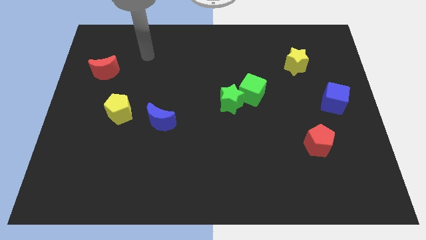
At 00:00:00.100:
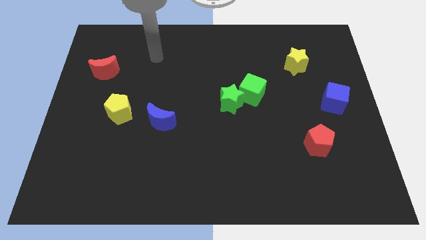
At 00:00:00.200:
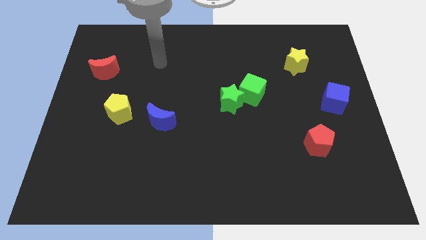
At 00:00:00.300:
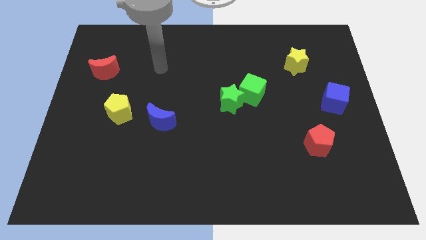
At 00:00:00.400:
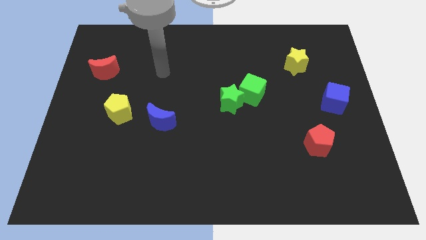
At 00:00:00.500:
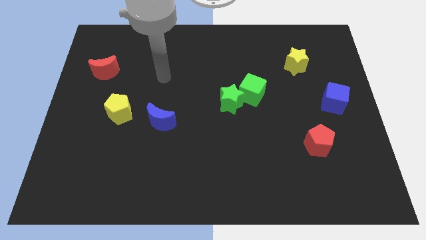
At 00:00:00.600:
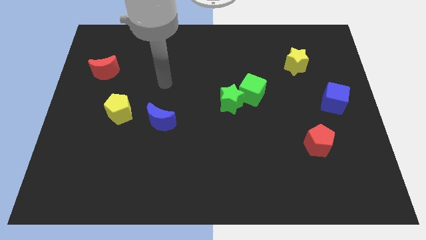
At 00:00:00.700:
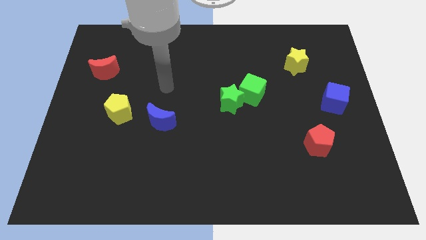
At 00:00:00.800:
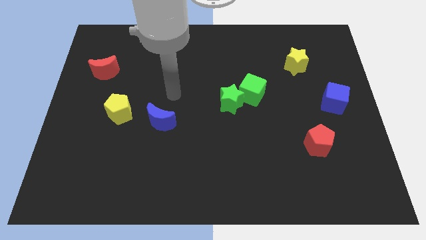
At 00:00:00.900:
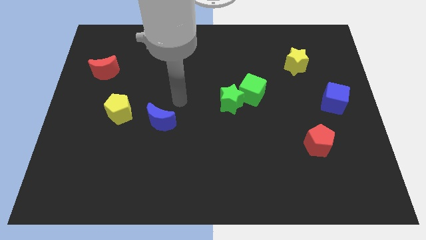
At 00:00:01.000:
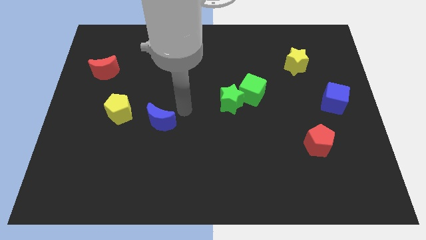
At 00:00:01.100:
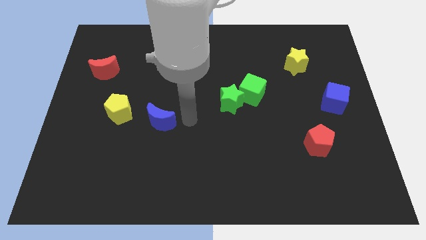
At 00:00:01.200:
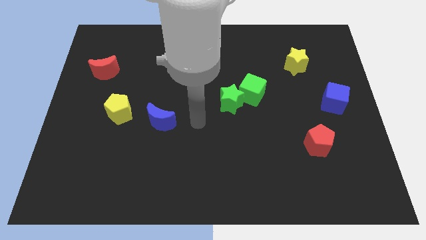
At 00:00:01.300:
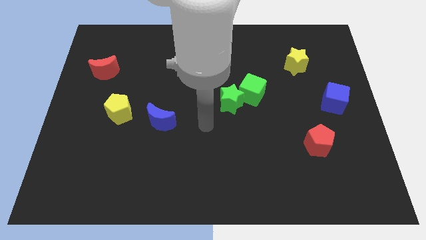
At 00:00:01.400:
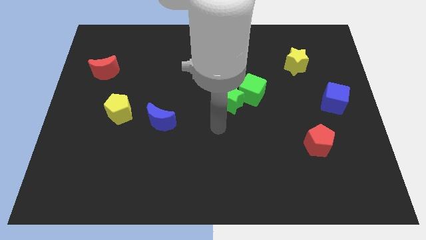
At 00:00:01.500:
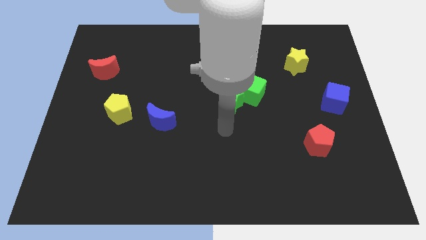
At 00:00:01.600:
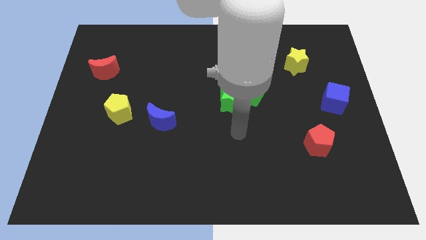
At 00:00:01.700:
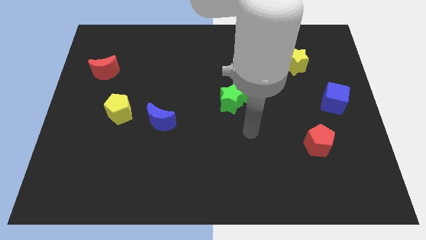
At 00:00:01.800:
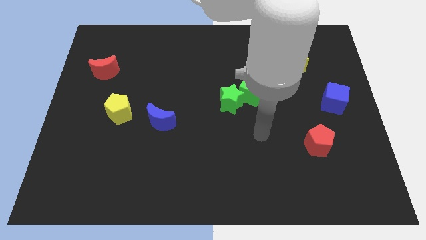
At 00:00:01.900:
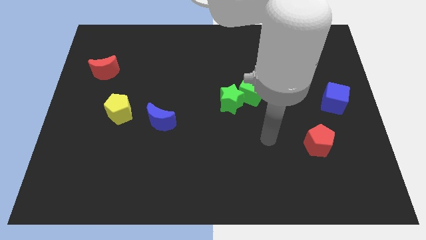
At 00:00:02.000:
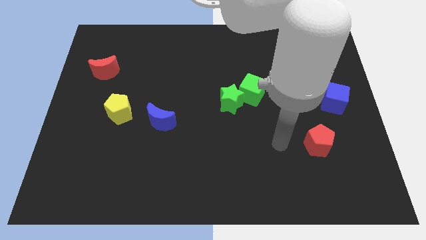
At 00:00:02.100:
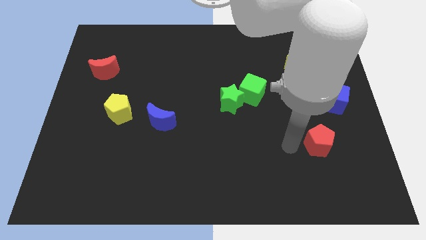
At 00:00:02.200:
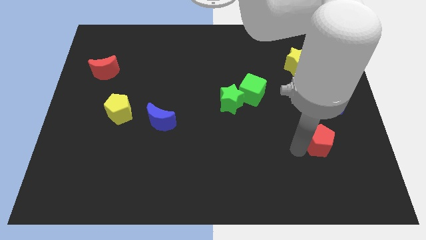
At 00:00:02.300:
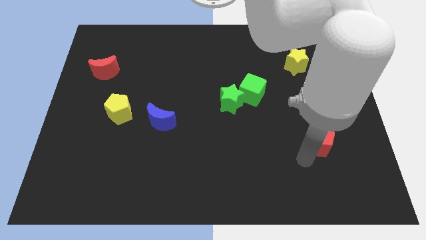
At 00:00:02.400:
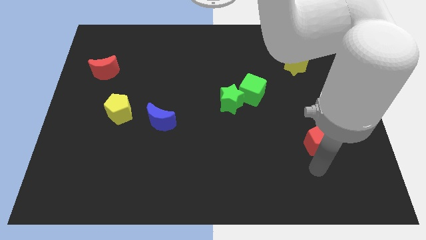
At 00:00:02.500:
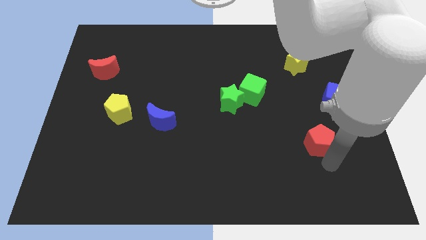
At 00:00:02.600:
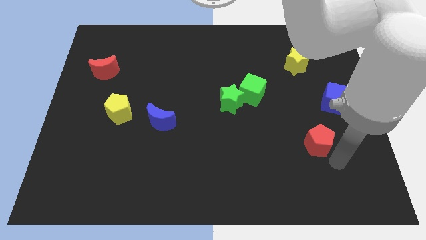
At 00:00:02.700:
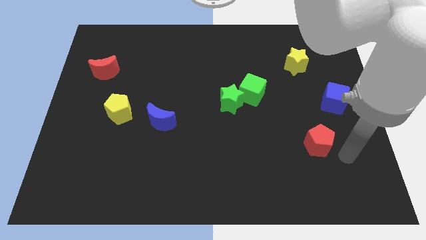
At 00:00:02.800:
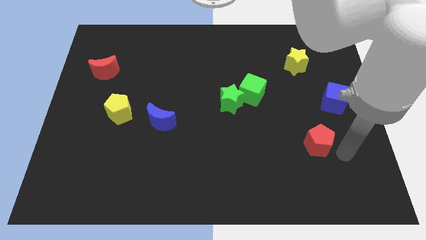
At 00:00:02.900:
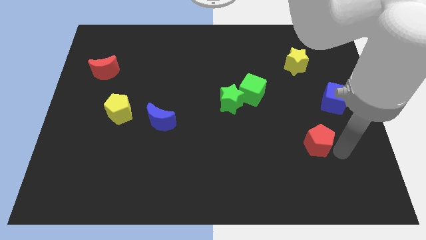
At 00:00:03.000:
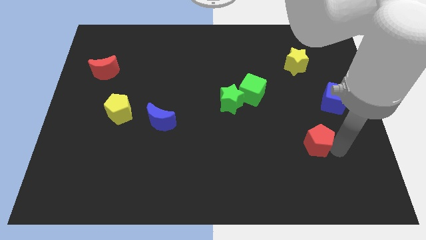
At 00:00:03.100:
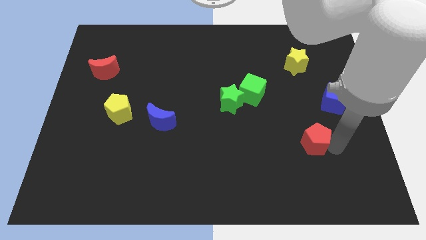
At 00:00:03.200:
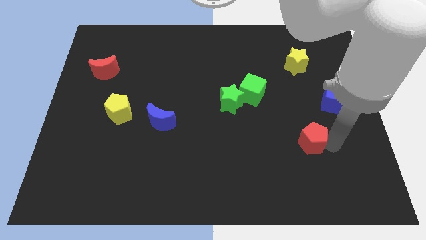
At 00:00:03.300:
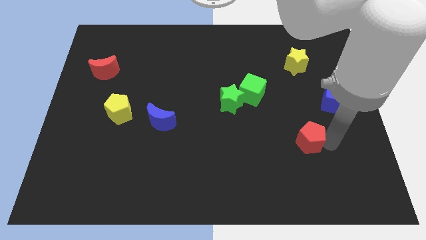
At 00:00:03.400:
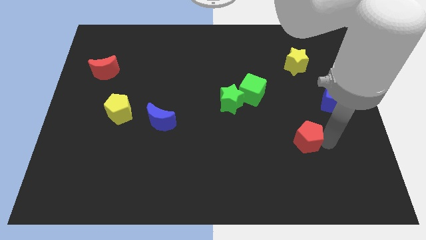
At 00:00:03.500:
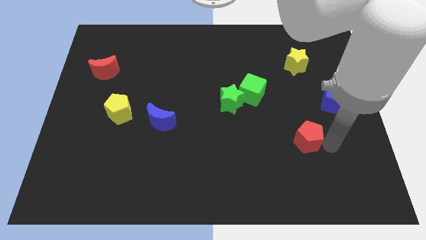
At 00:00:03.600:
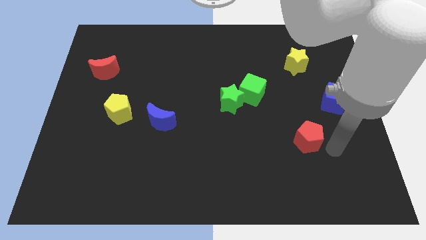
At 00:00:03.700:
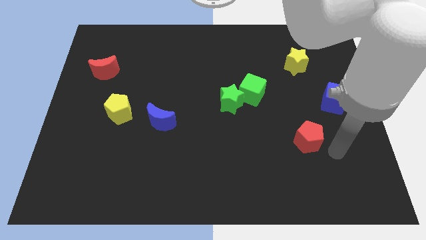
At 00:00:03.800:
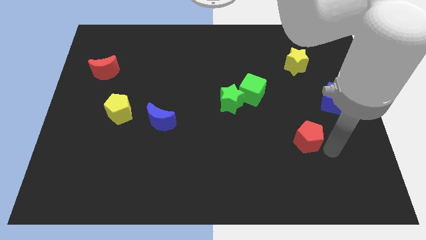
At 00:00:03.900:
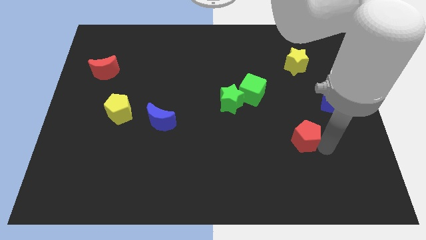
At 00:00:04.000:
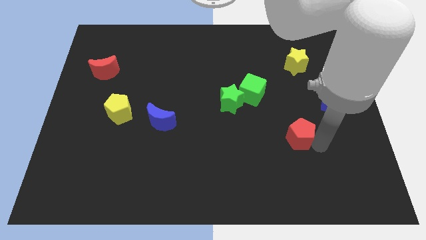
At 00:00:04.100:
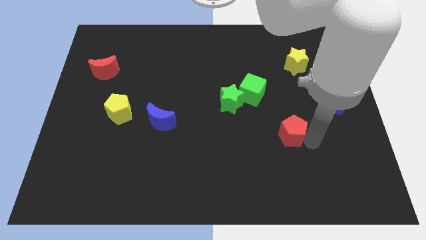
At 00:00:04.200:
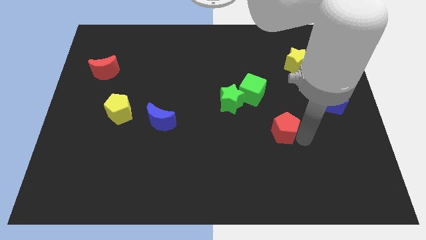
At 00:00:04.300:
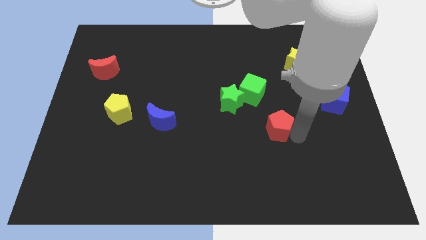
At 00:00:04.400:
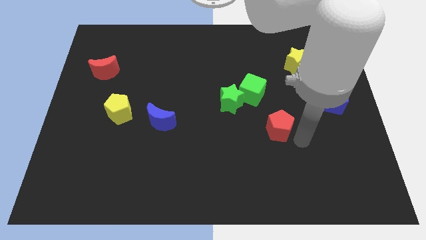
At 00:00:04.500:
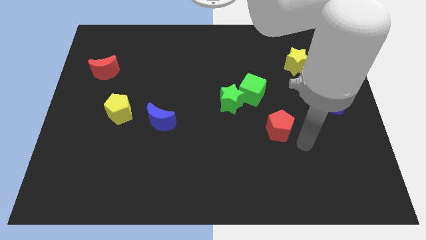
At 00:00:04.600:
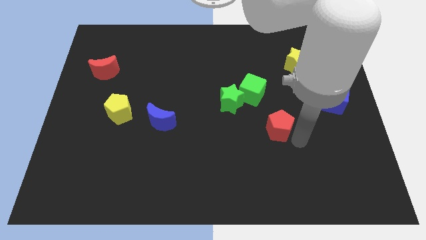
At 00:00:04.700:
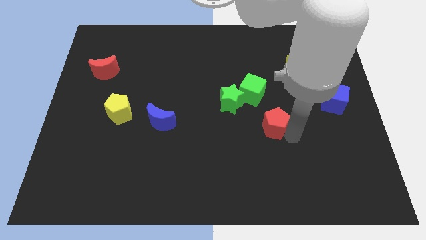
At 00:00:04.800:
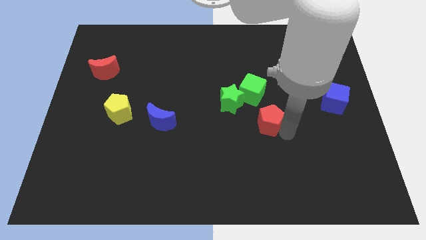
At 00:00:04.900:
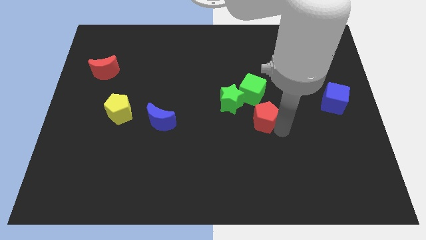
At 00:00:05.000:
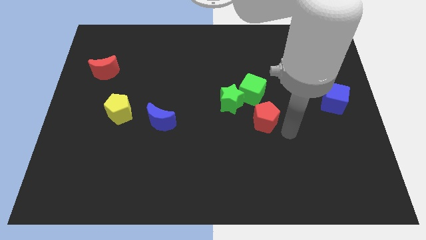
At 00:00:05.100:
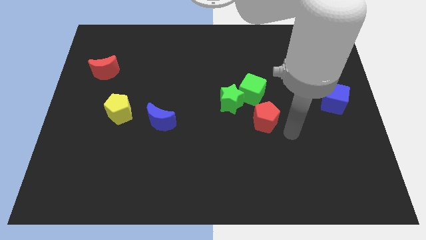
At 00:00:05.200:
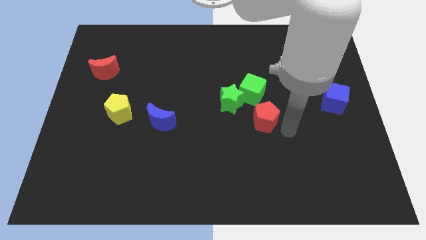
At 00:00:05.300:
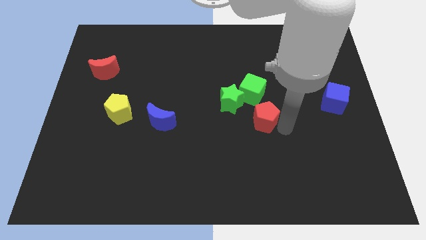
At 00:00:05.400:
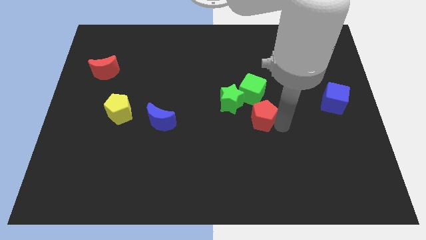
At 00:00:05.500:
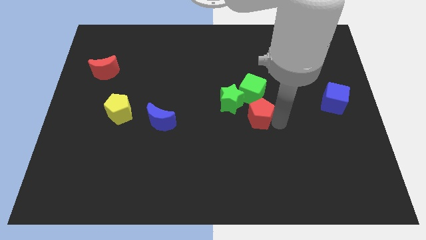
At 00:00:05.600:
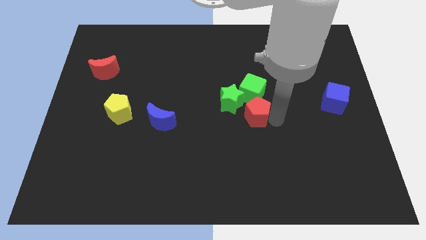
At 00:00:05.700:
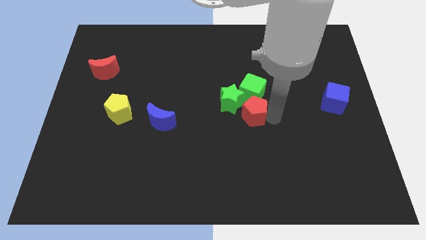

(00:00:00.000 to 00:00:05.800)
move the red pentagon next to the green star

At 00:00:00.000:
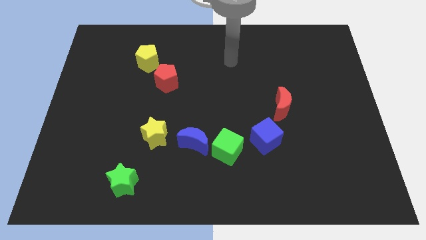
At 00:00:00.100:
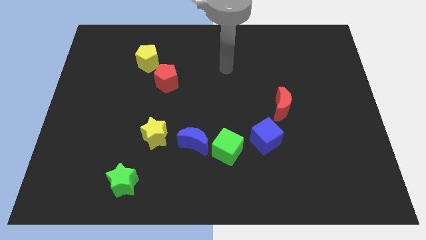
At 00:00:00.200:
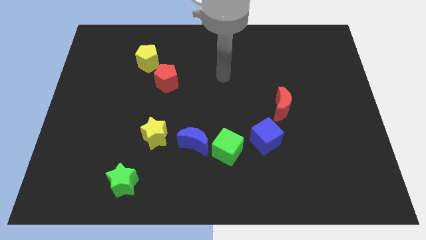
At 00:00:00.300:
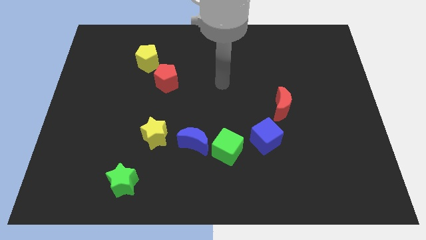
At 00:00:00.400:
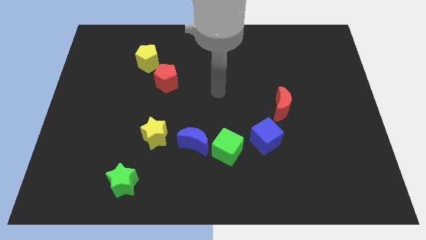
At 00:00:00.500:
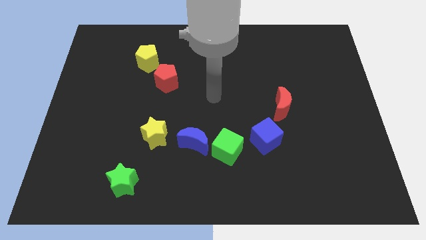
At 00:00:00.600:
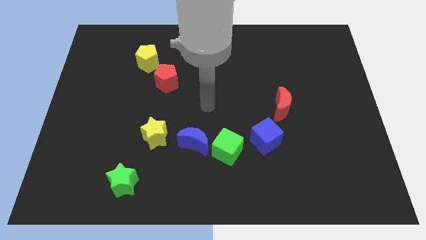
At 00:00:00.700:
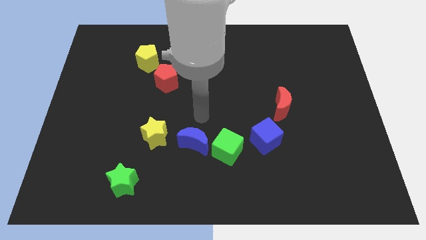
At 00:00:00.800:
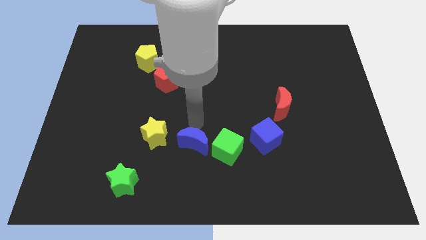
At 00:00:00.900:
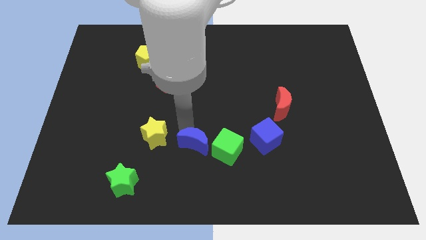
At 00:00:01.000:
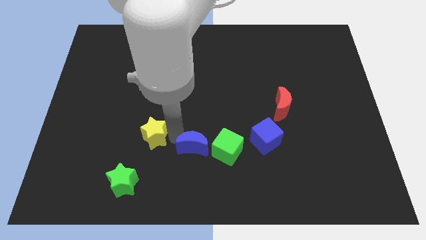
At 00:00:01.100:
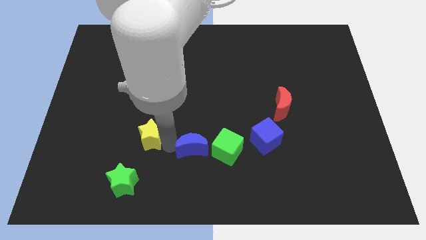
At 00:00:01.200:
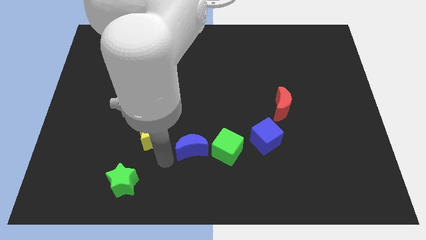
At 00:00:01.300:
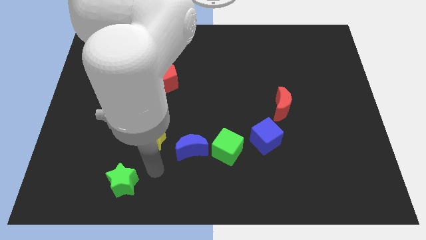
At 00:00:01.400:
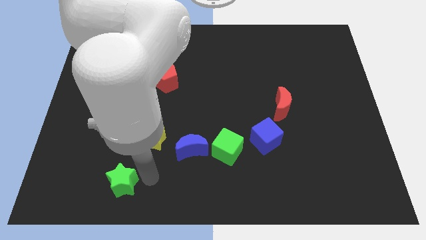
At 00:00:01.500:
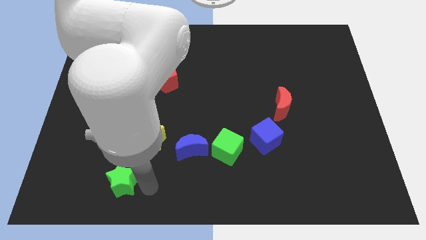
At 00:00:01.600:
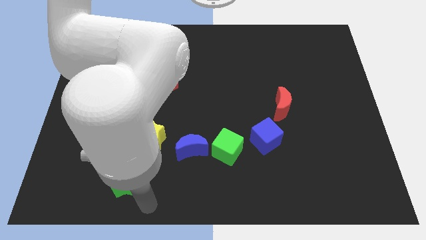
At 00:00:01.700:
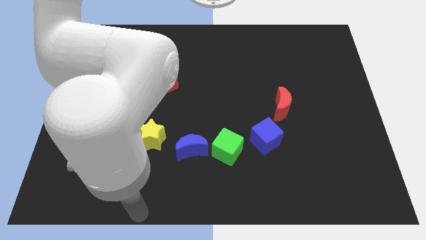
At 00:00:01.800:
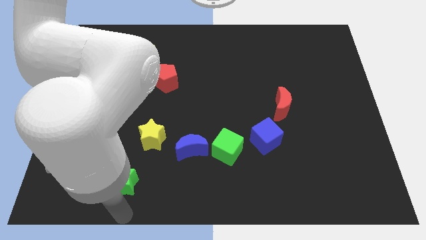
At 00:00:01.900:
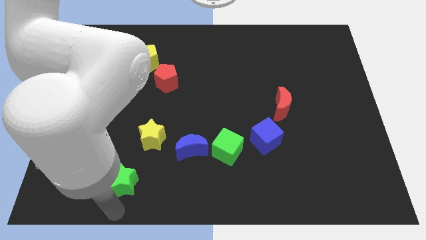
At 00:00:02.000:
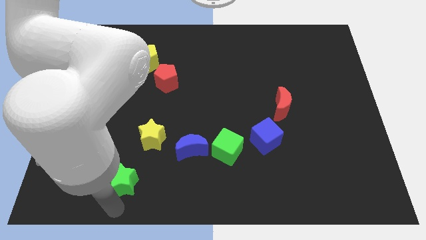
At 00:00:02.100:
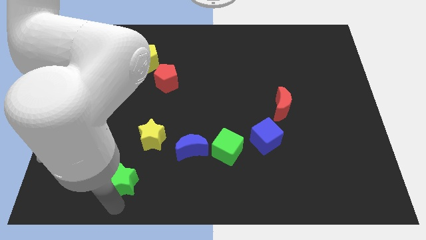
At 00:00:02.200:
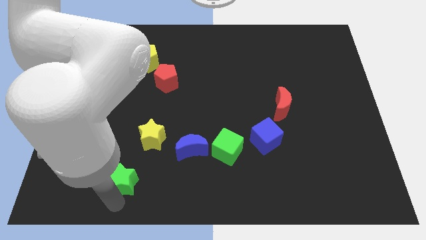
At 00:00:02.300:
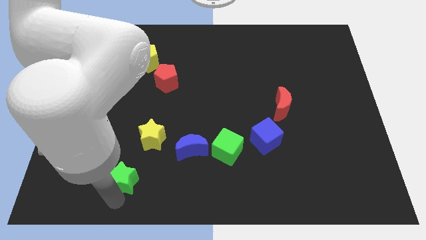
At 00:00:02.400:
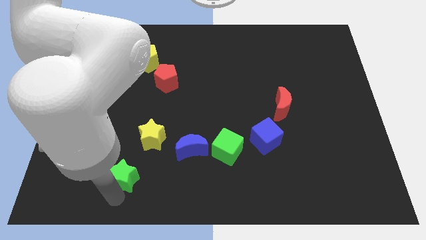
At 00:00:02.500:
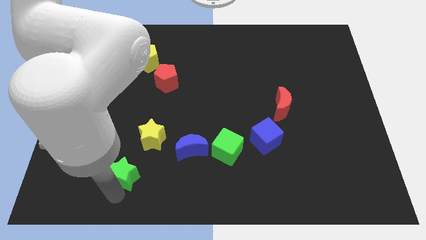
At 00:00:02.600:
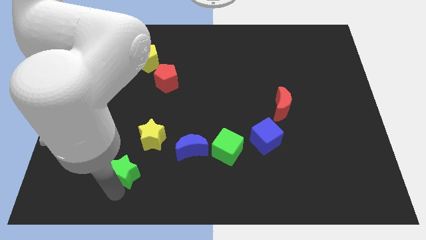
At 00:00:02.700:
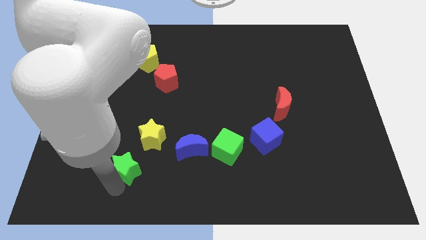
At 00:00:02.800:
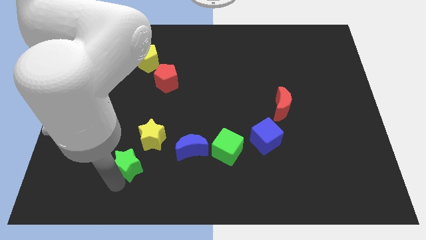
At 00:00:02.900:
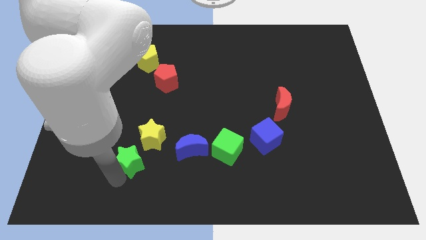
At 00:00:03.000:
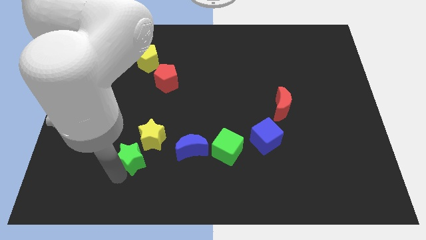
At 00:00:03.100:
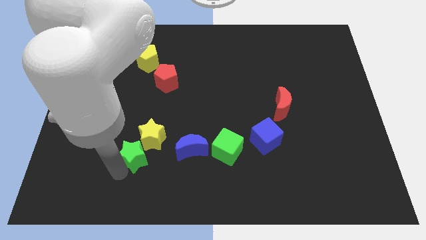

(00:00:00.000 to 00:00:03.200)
put the green star next to the yellow star
